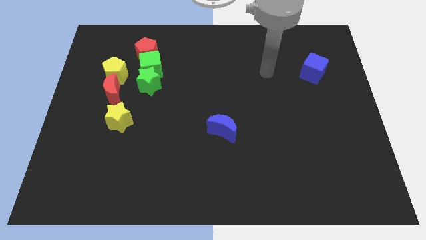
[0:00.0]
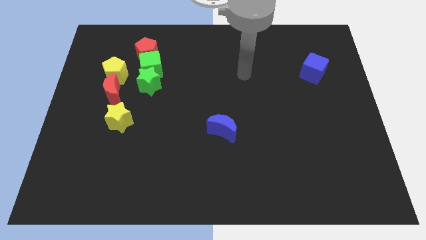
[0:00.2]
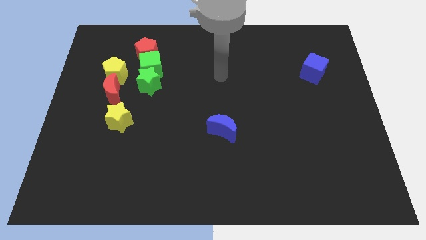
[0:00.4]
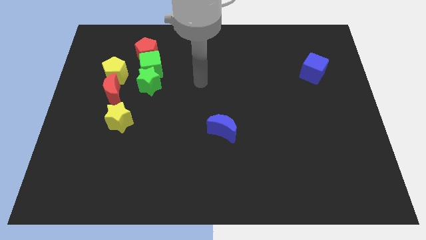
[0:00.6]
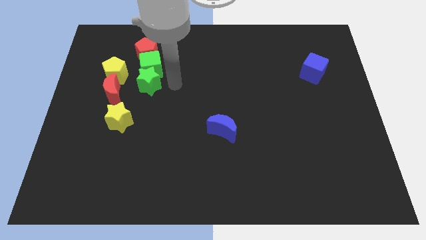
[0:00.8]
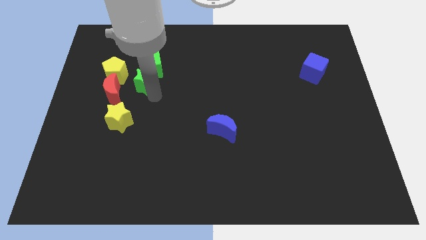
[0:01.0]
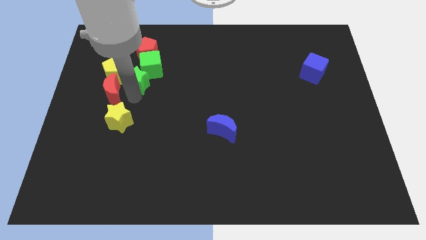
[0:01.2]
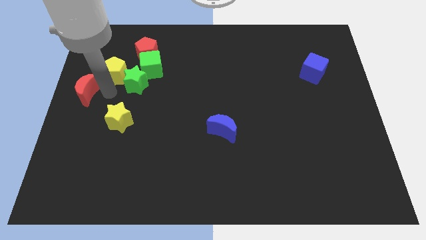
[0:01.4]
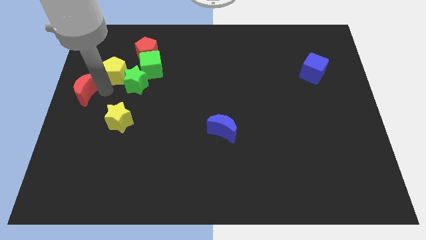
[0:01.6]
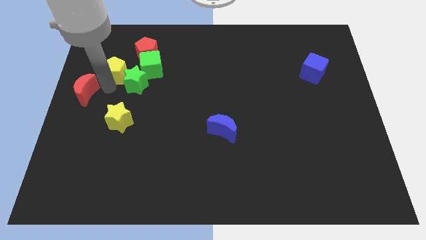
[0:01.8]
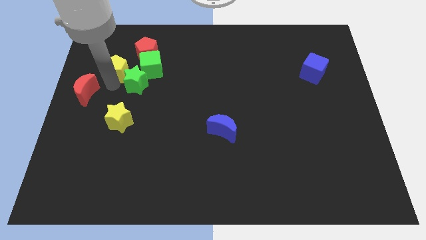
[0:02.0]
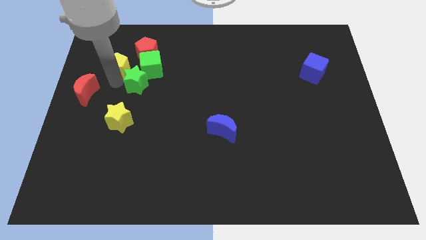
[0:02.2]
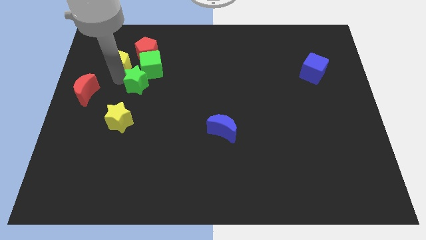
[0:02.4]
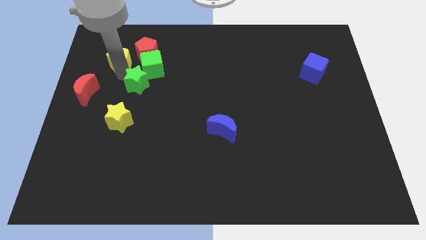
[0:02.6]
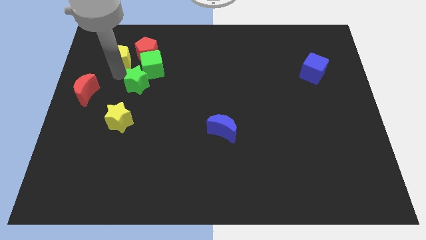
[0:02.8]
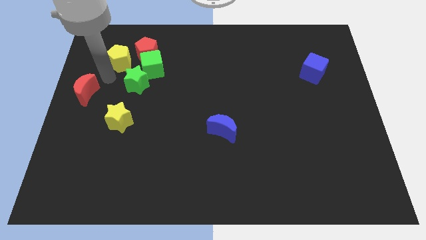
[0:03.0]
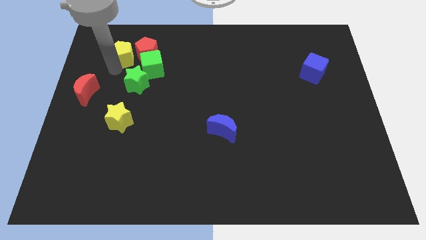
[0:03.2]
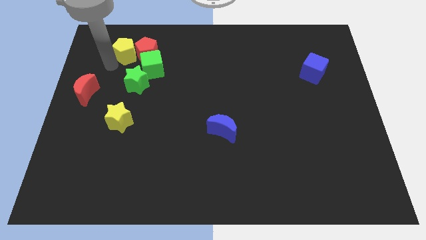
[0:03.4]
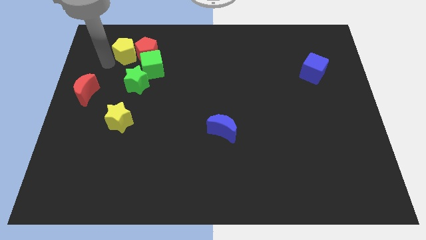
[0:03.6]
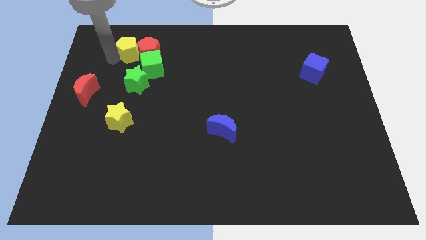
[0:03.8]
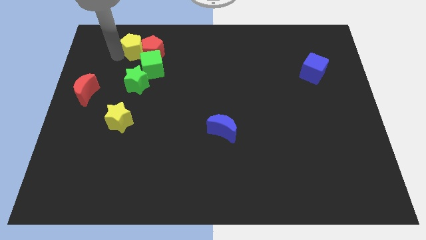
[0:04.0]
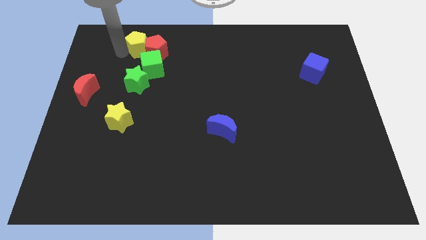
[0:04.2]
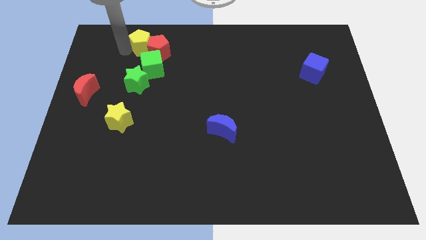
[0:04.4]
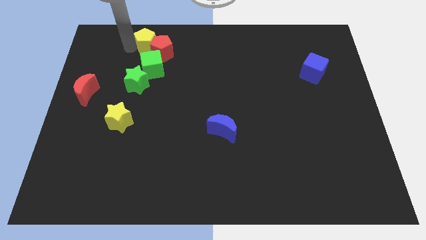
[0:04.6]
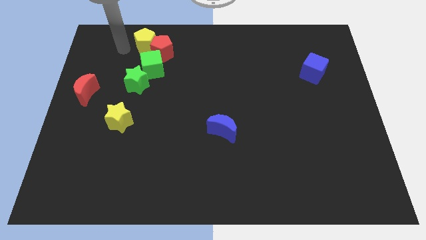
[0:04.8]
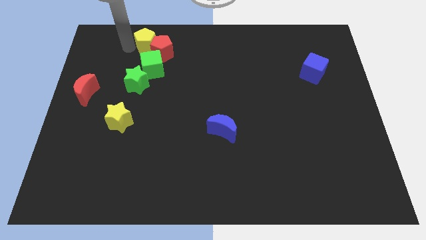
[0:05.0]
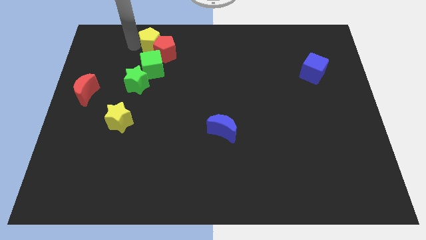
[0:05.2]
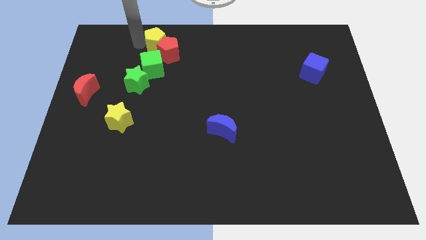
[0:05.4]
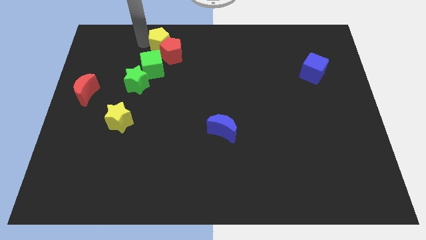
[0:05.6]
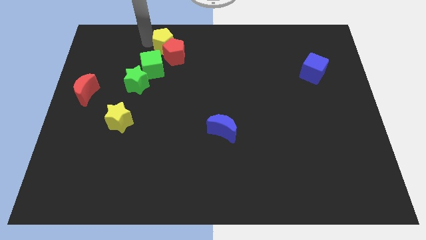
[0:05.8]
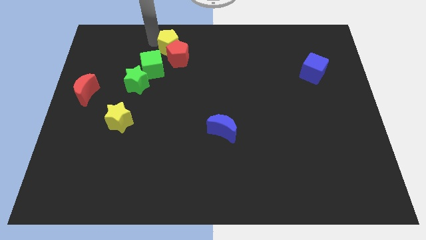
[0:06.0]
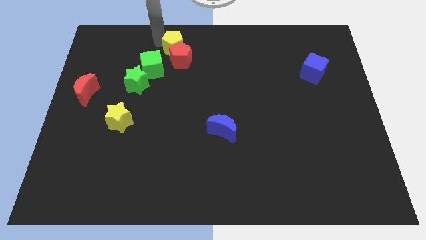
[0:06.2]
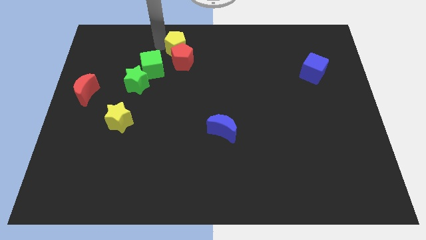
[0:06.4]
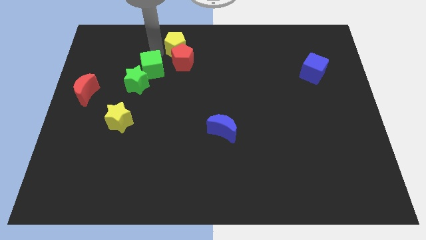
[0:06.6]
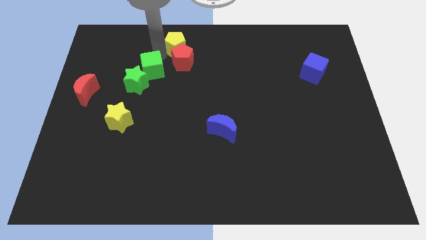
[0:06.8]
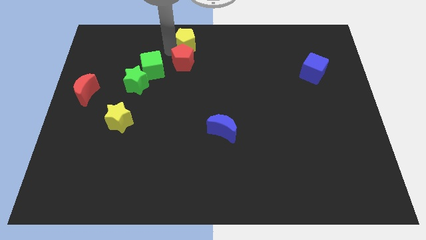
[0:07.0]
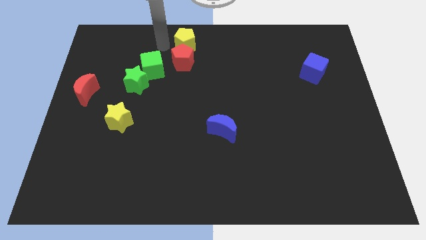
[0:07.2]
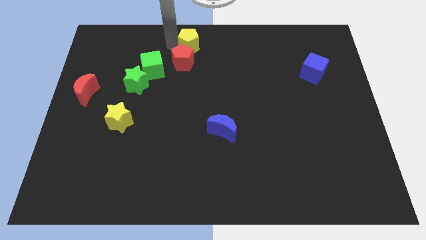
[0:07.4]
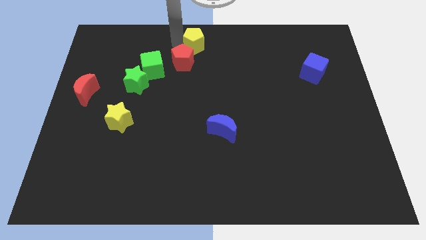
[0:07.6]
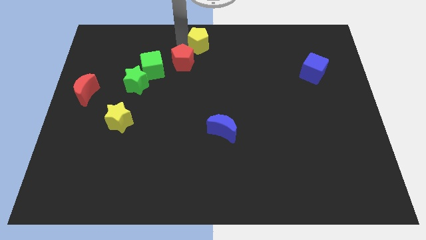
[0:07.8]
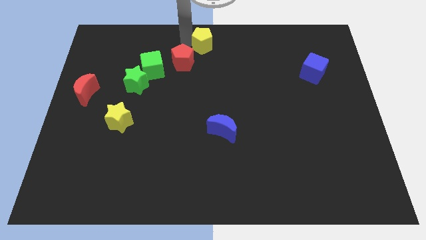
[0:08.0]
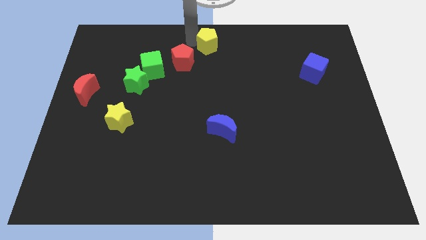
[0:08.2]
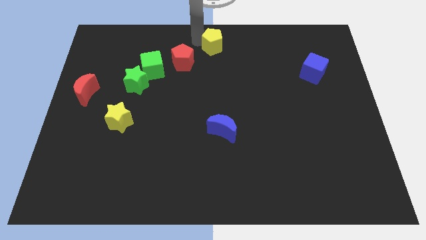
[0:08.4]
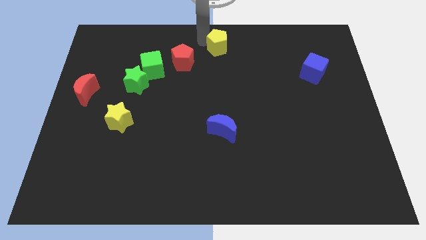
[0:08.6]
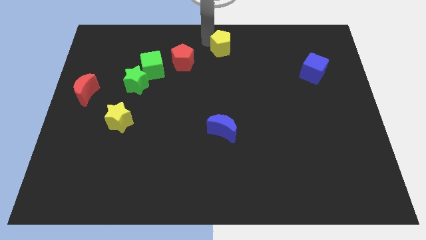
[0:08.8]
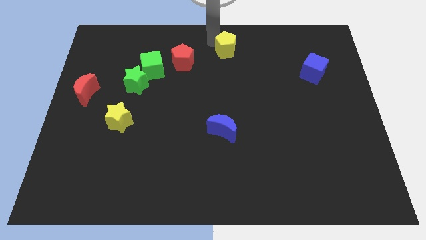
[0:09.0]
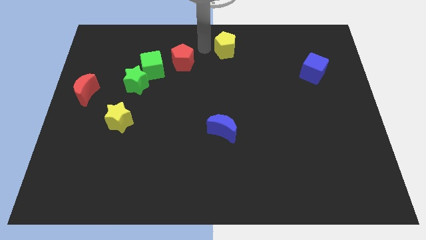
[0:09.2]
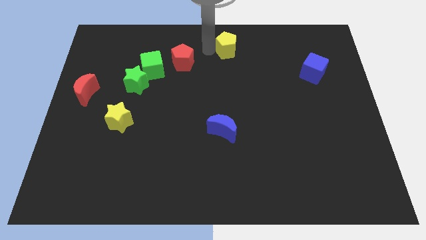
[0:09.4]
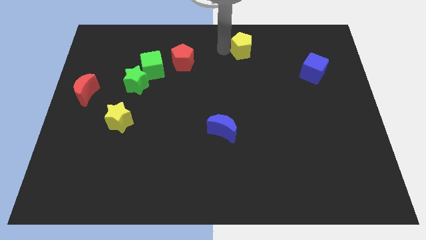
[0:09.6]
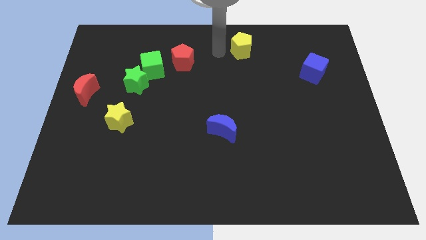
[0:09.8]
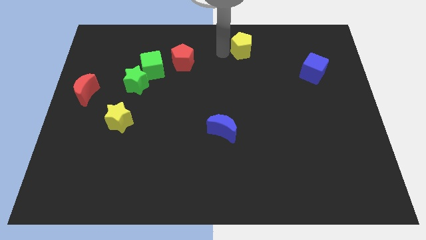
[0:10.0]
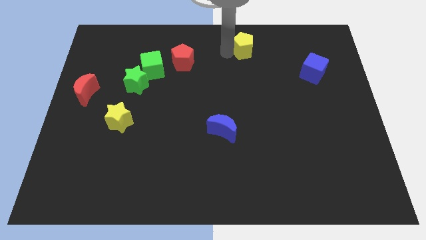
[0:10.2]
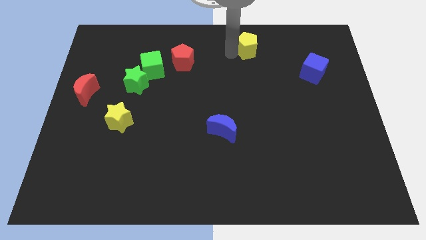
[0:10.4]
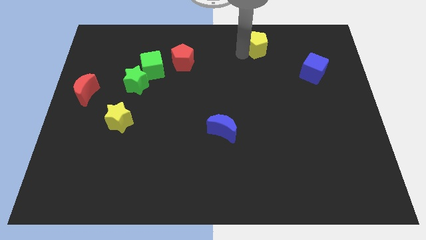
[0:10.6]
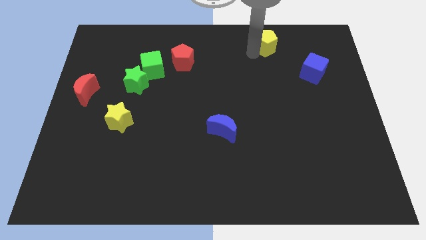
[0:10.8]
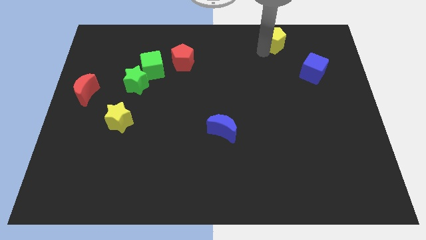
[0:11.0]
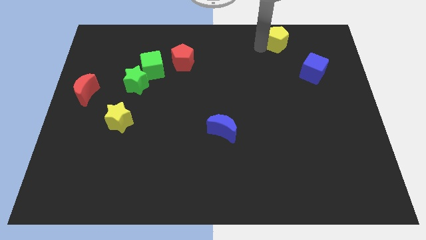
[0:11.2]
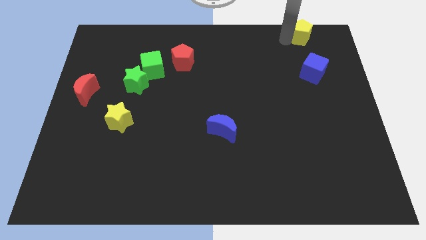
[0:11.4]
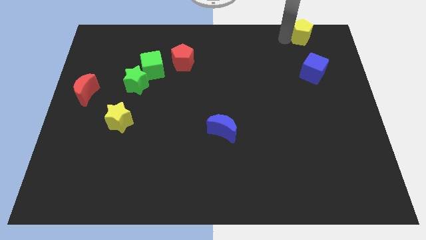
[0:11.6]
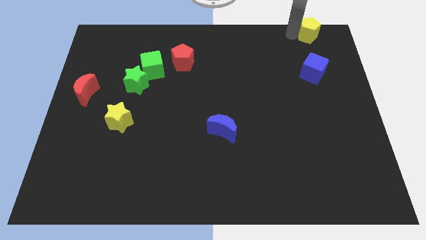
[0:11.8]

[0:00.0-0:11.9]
move the yellow pentagon to the top right
